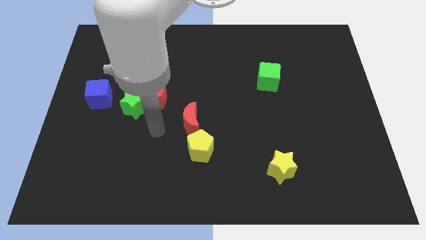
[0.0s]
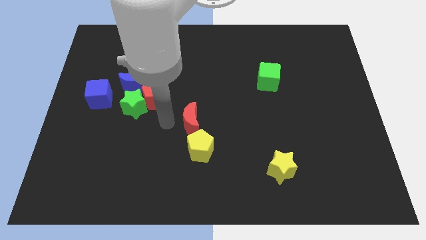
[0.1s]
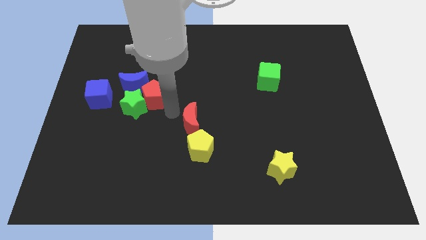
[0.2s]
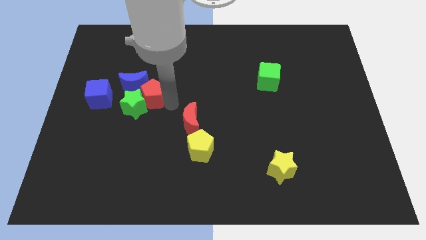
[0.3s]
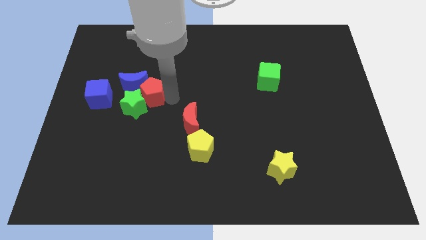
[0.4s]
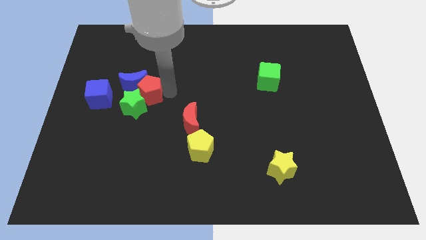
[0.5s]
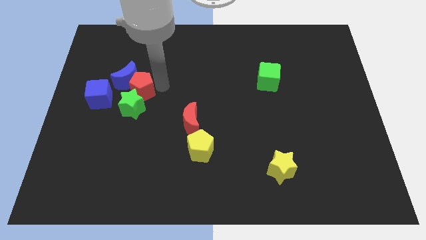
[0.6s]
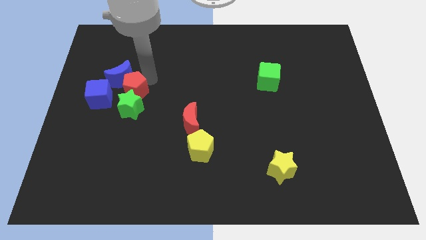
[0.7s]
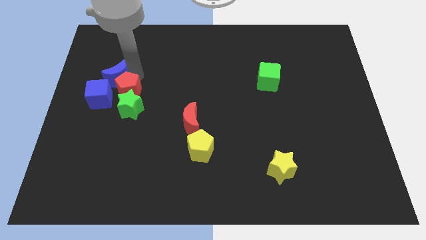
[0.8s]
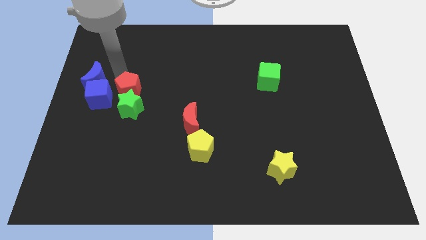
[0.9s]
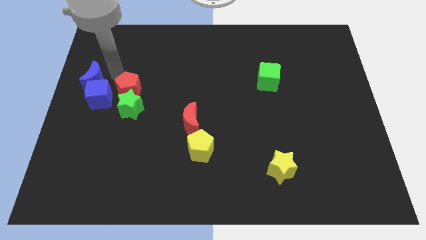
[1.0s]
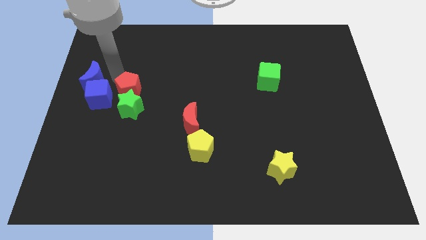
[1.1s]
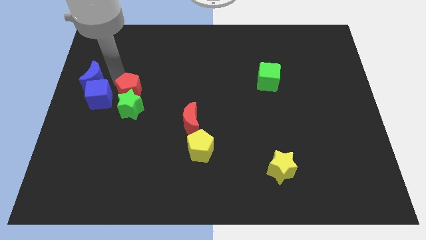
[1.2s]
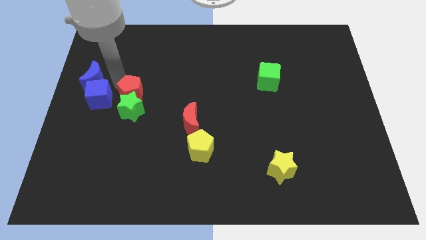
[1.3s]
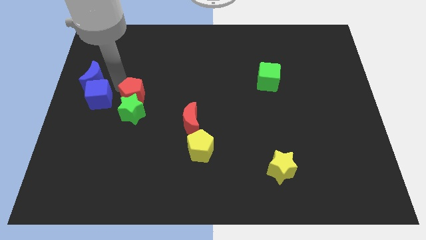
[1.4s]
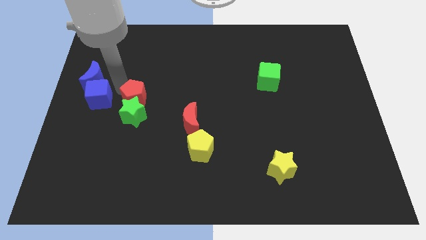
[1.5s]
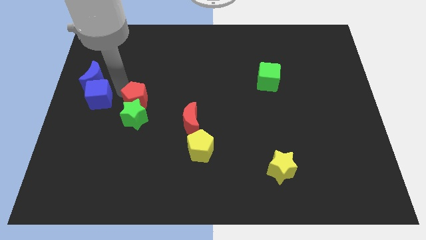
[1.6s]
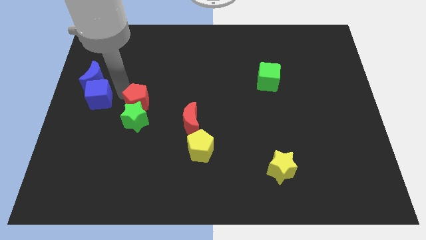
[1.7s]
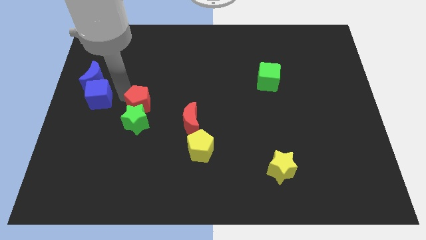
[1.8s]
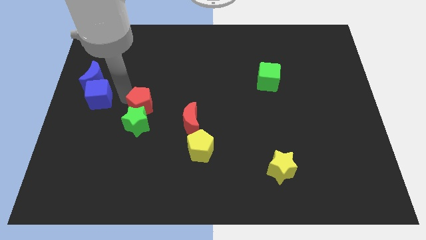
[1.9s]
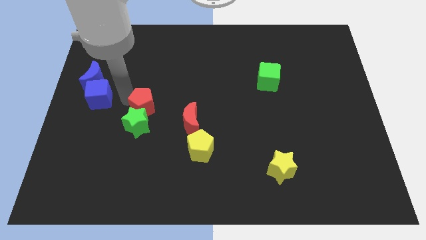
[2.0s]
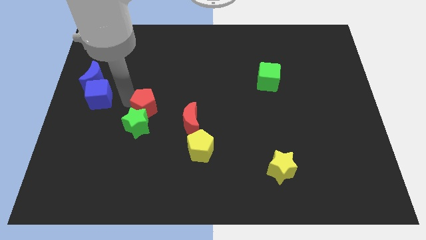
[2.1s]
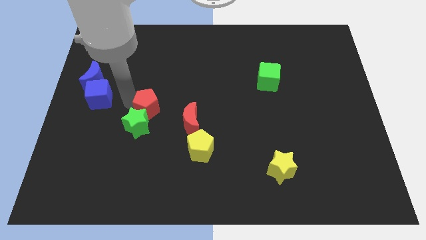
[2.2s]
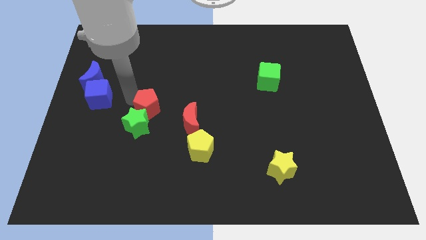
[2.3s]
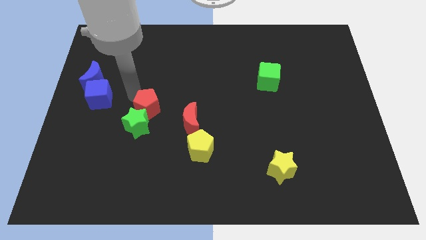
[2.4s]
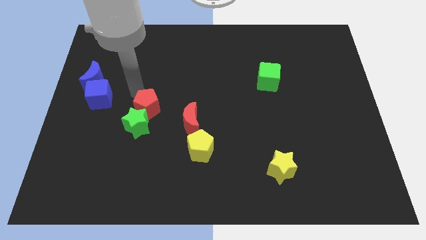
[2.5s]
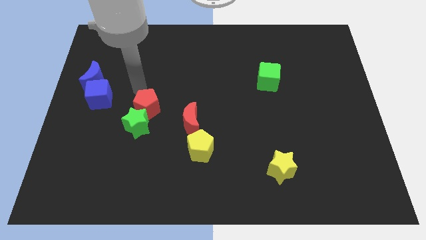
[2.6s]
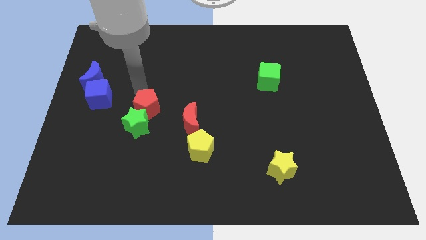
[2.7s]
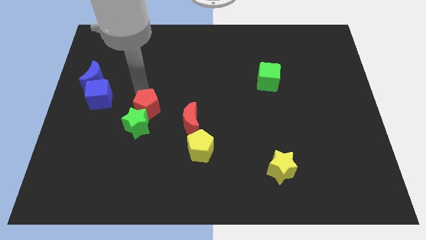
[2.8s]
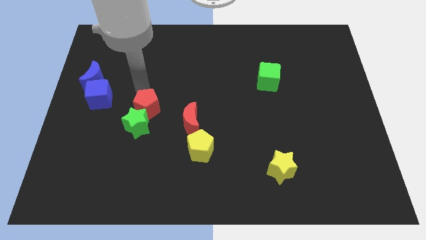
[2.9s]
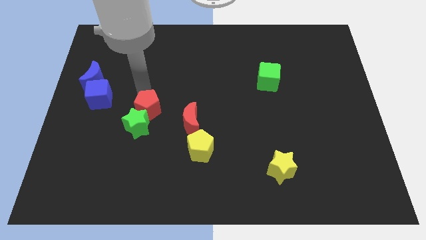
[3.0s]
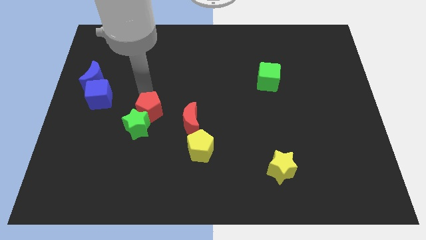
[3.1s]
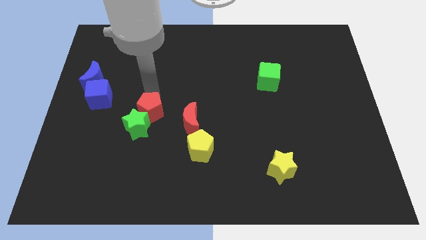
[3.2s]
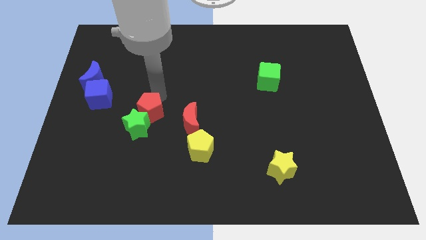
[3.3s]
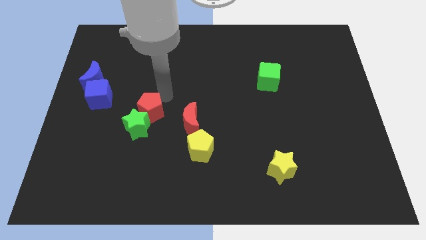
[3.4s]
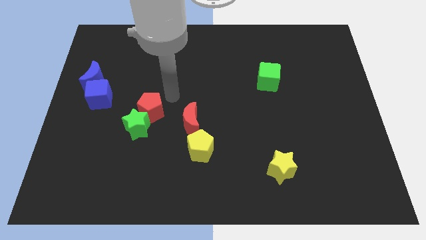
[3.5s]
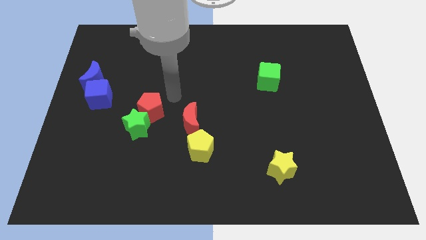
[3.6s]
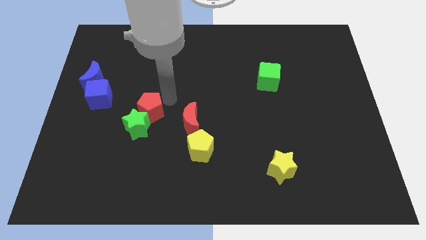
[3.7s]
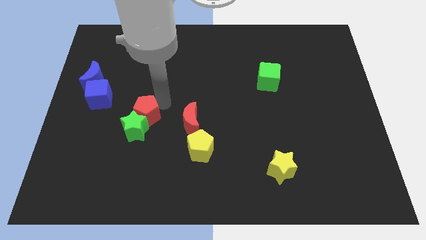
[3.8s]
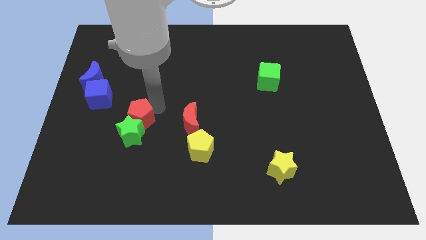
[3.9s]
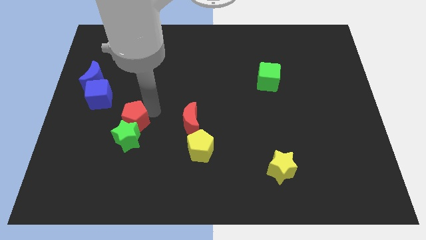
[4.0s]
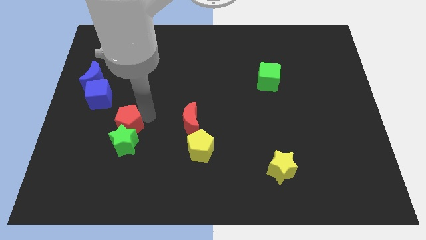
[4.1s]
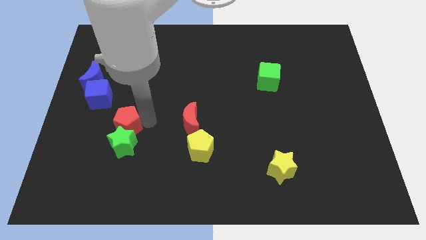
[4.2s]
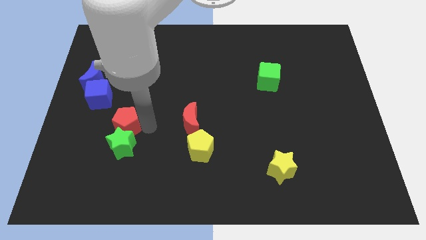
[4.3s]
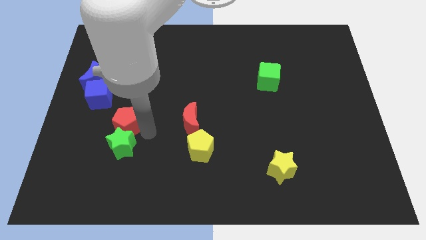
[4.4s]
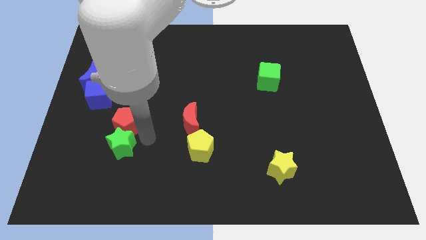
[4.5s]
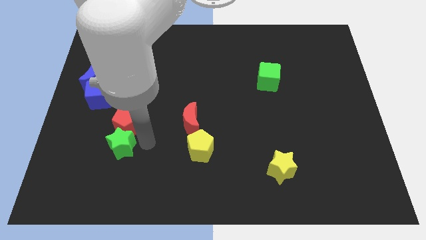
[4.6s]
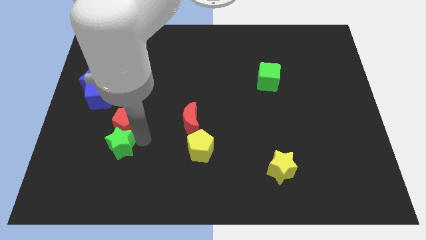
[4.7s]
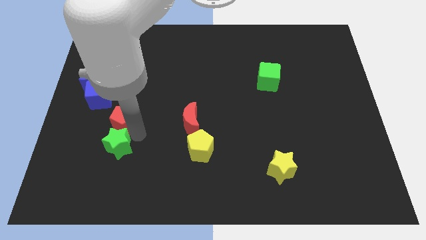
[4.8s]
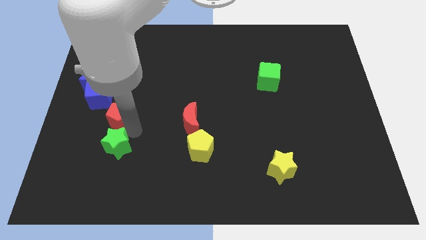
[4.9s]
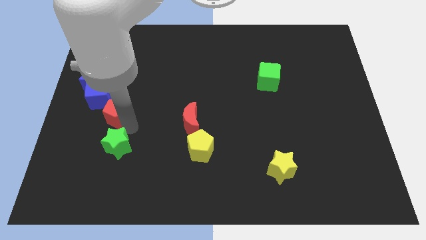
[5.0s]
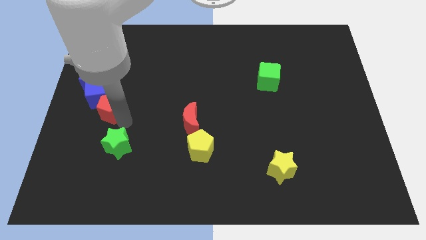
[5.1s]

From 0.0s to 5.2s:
put the red pentagon next to the blue cube

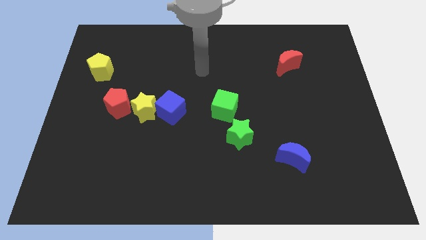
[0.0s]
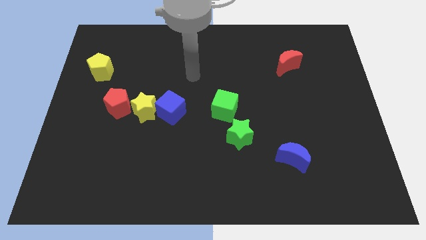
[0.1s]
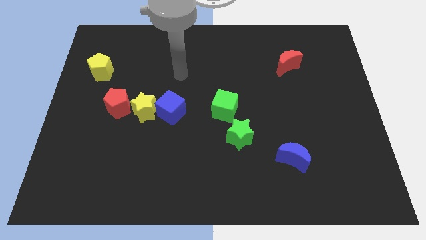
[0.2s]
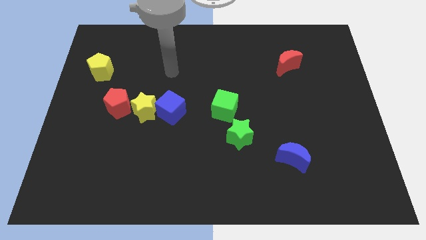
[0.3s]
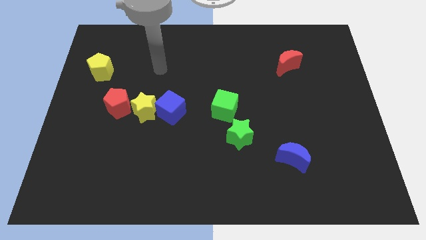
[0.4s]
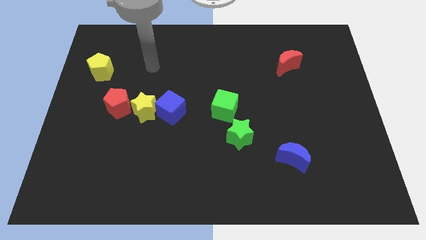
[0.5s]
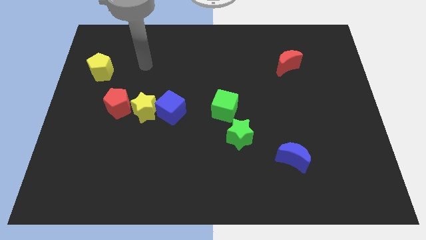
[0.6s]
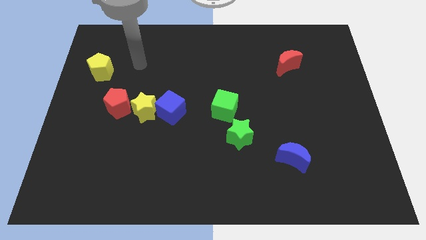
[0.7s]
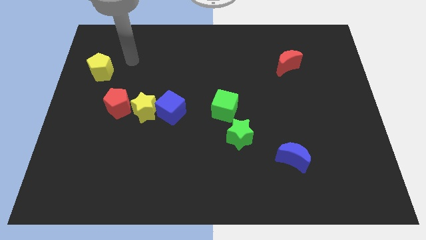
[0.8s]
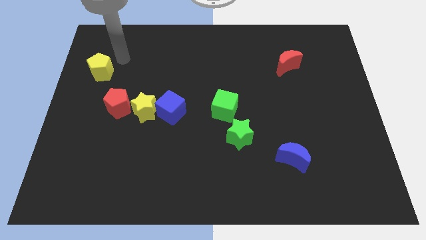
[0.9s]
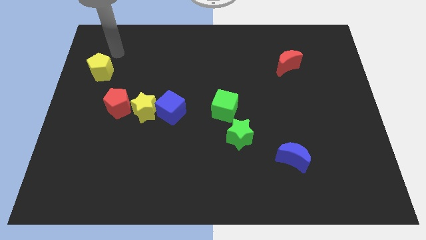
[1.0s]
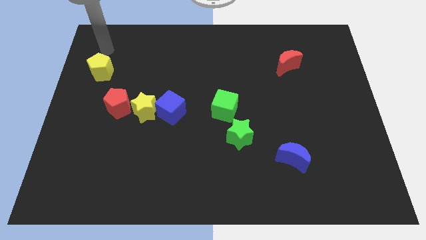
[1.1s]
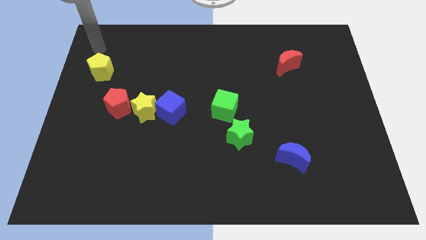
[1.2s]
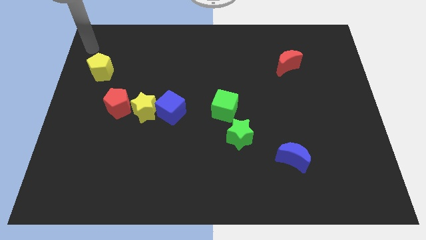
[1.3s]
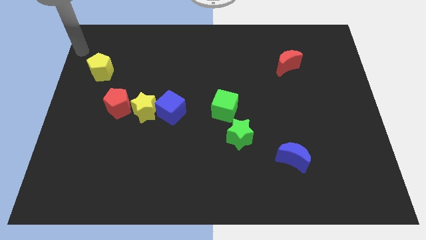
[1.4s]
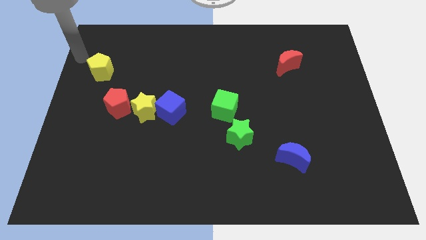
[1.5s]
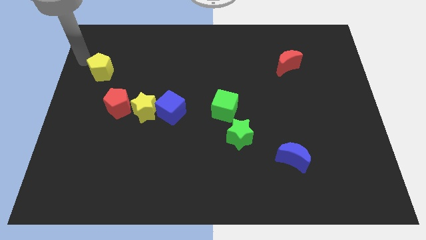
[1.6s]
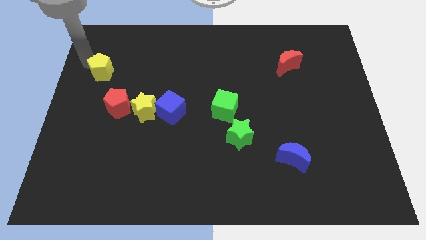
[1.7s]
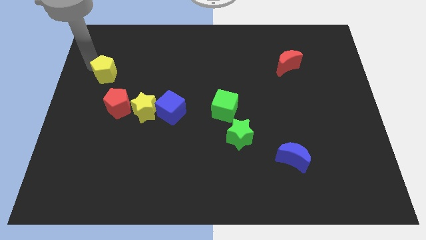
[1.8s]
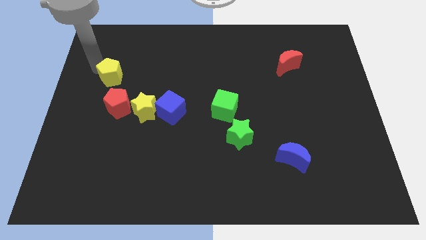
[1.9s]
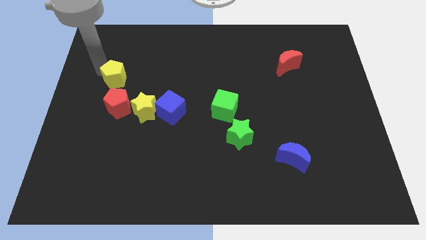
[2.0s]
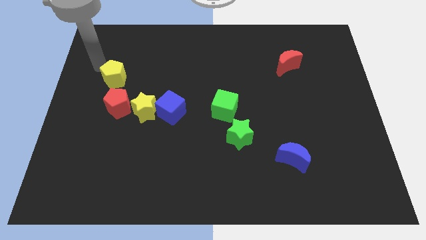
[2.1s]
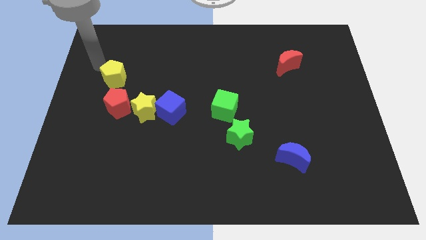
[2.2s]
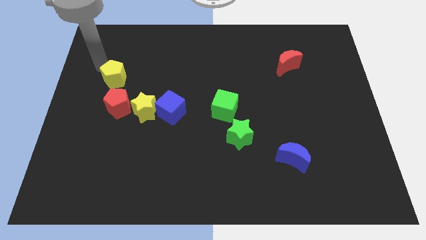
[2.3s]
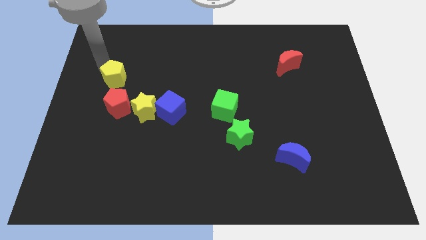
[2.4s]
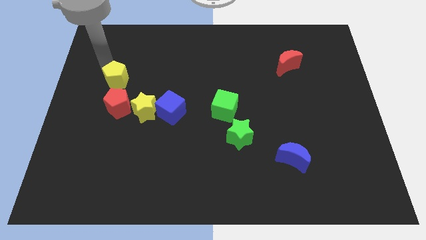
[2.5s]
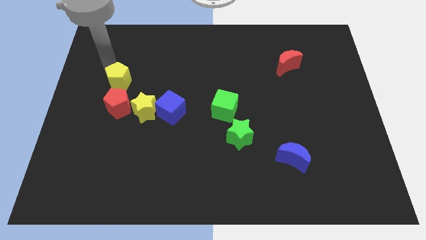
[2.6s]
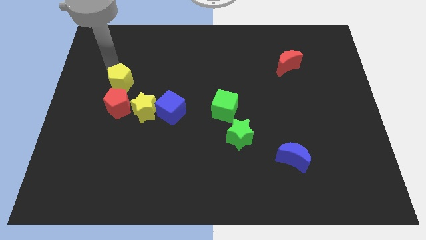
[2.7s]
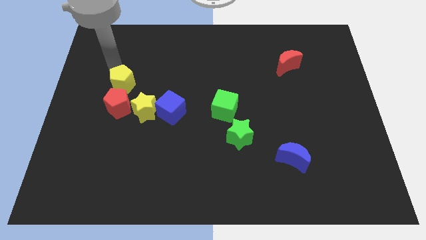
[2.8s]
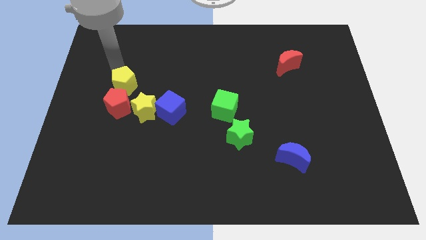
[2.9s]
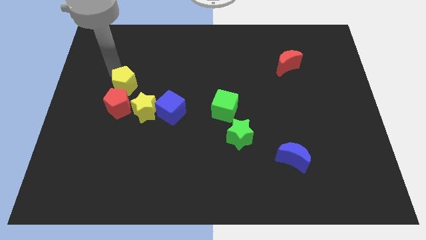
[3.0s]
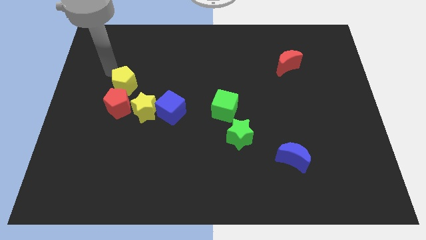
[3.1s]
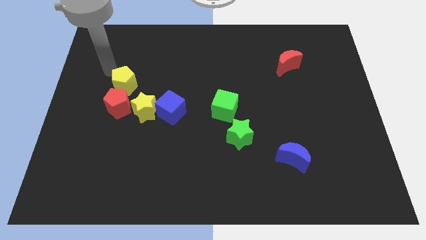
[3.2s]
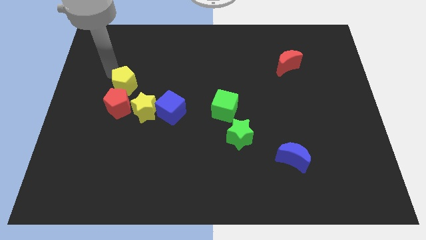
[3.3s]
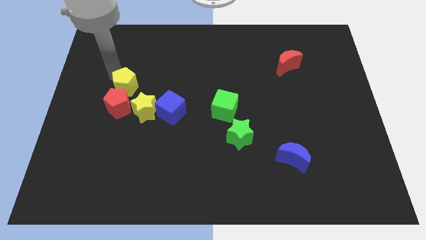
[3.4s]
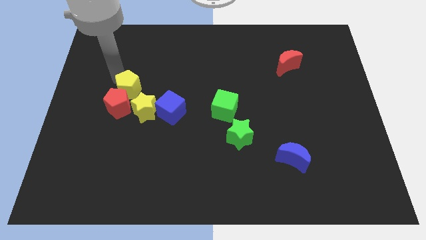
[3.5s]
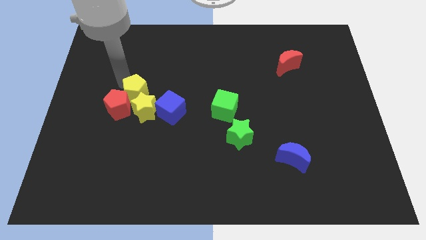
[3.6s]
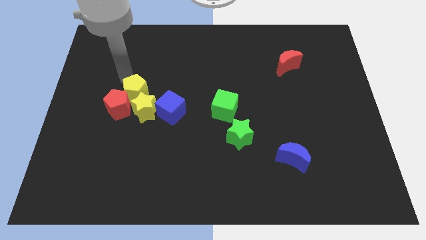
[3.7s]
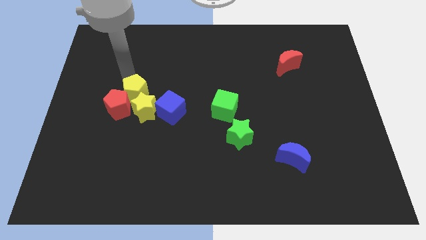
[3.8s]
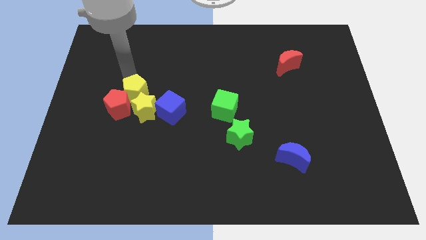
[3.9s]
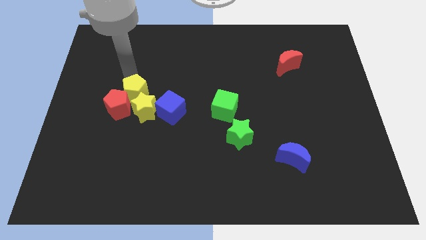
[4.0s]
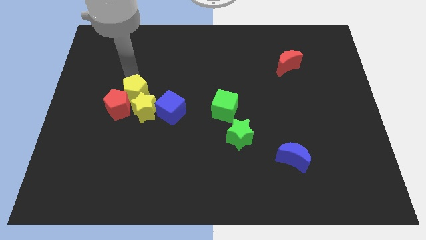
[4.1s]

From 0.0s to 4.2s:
put the yellow pentagon towards the yellow star
